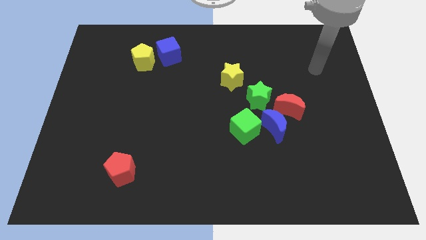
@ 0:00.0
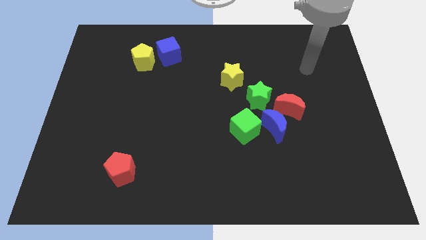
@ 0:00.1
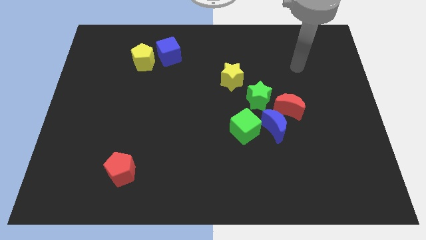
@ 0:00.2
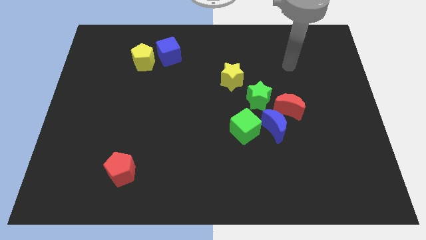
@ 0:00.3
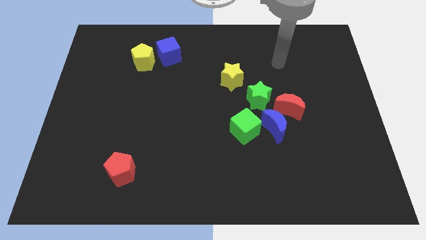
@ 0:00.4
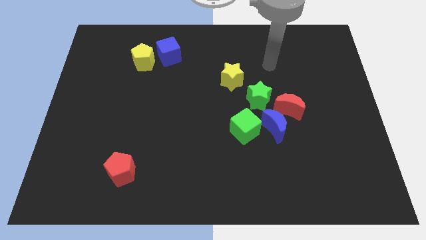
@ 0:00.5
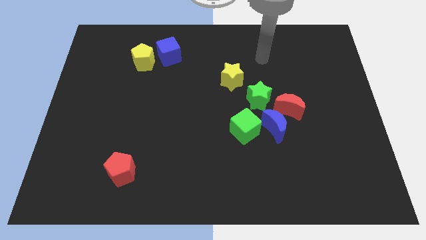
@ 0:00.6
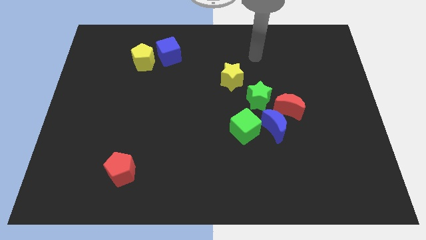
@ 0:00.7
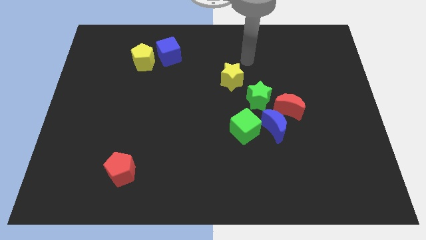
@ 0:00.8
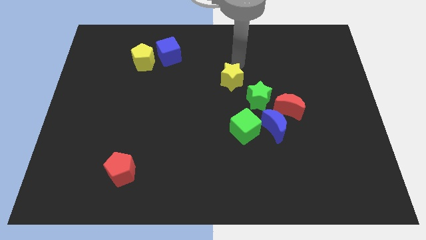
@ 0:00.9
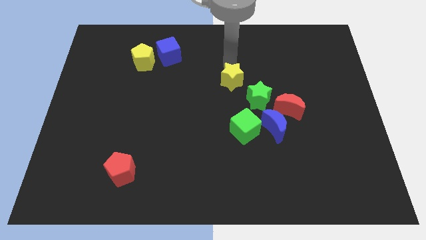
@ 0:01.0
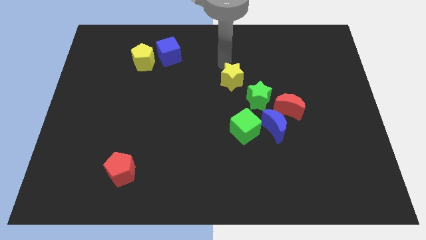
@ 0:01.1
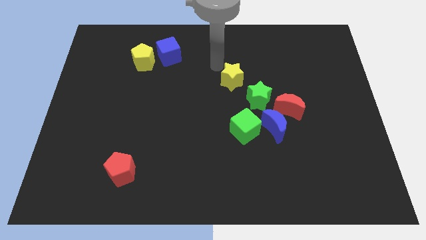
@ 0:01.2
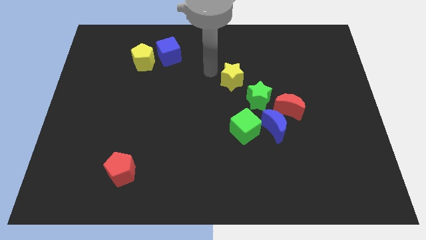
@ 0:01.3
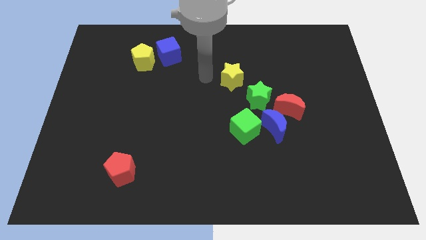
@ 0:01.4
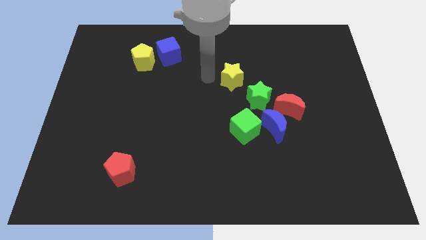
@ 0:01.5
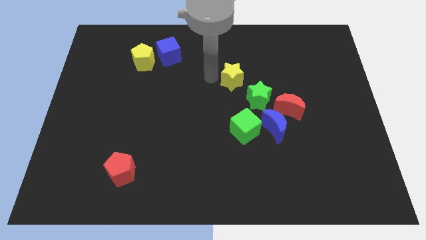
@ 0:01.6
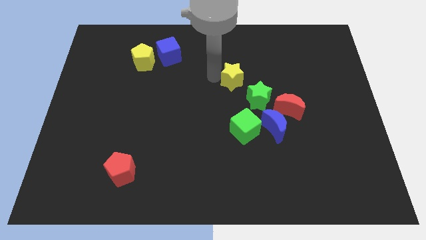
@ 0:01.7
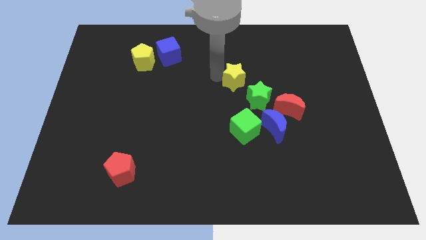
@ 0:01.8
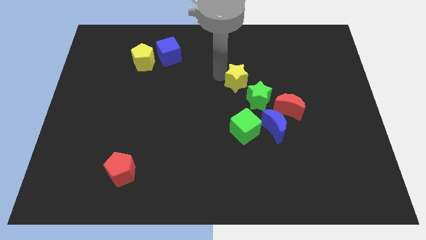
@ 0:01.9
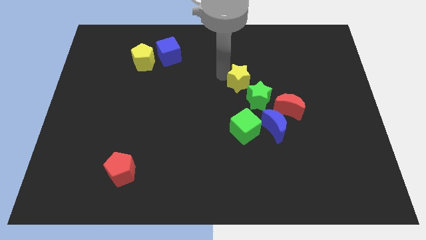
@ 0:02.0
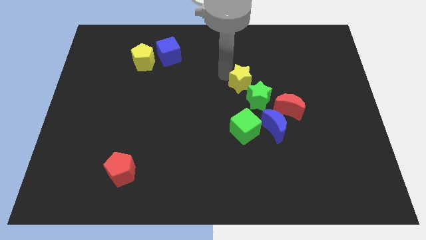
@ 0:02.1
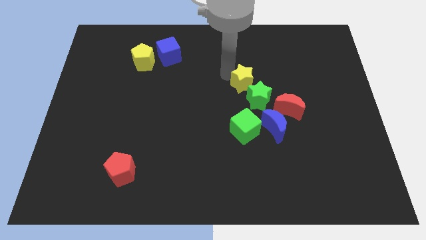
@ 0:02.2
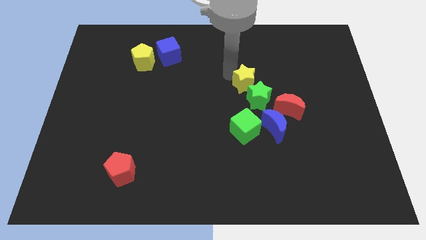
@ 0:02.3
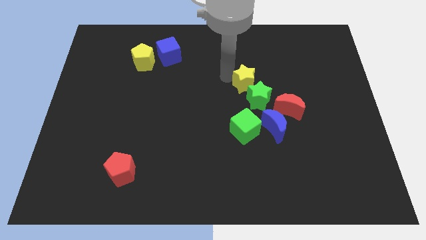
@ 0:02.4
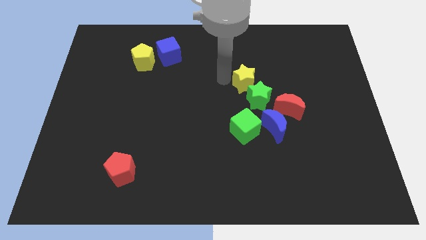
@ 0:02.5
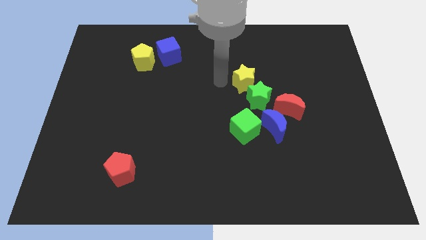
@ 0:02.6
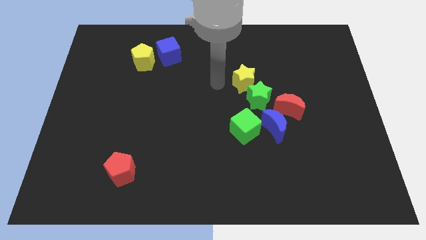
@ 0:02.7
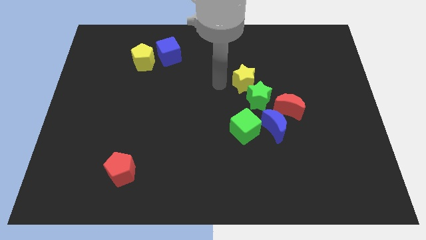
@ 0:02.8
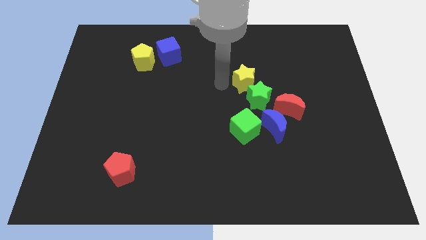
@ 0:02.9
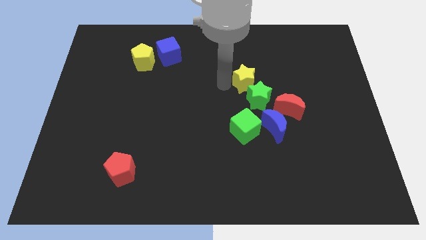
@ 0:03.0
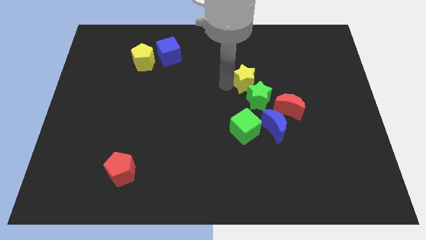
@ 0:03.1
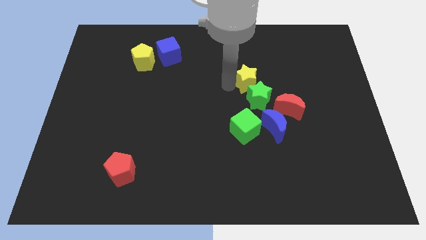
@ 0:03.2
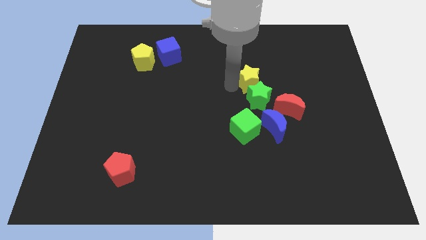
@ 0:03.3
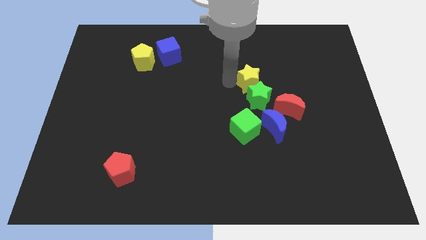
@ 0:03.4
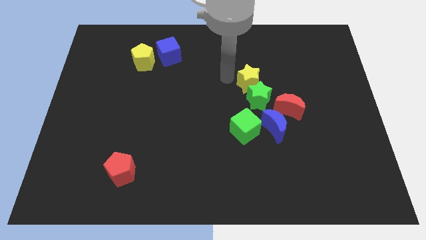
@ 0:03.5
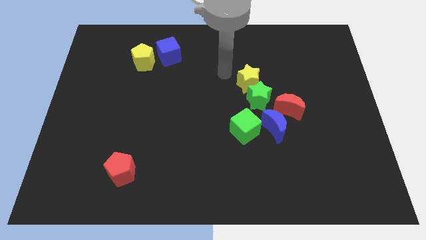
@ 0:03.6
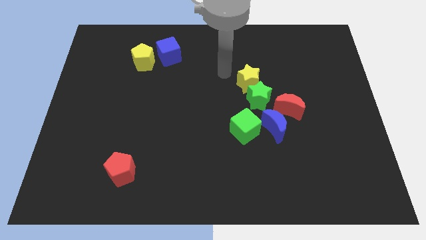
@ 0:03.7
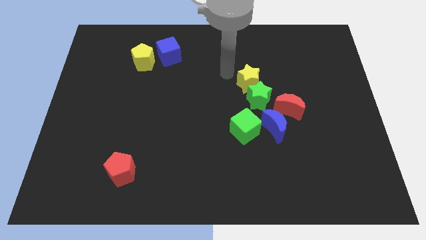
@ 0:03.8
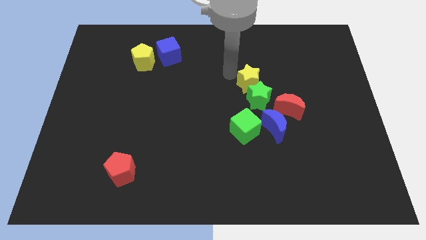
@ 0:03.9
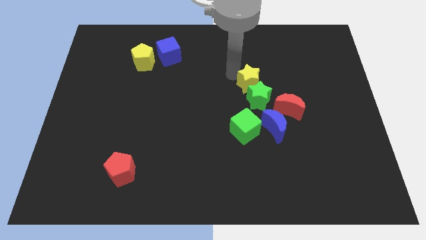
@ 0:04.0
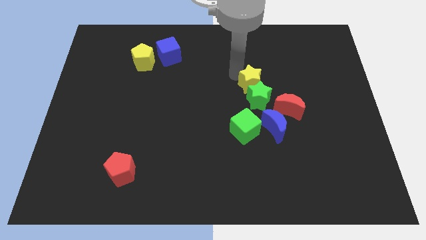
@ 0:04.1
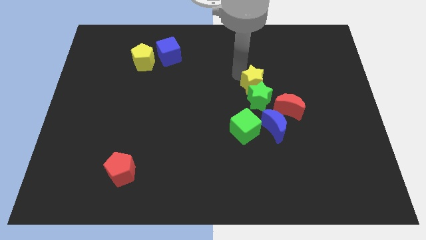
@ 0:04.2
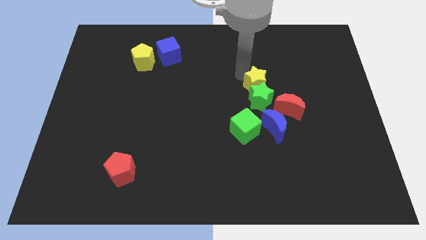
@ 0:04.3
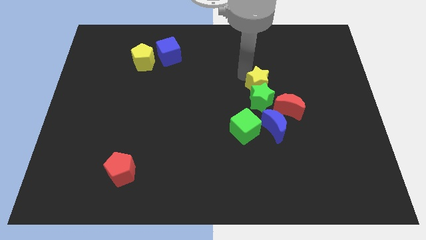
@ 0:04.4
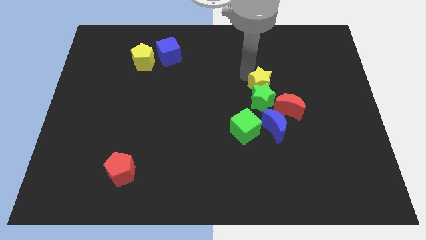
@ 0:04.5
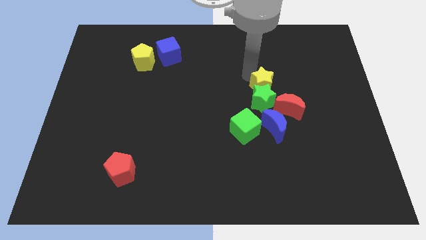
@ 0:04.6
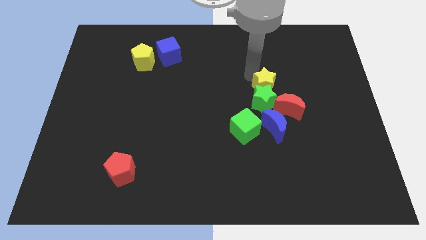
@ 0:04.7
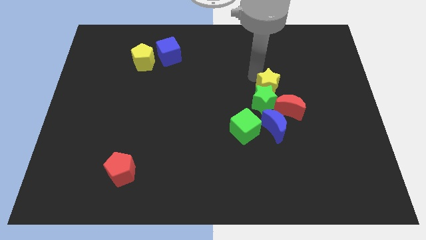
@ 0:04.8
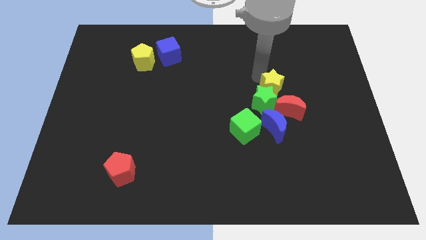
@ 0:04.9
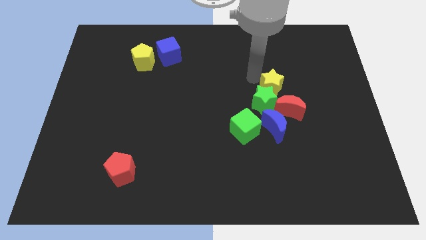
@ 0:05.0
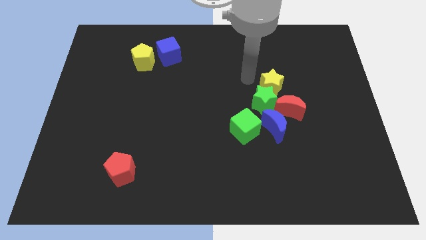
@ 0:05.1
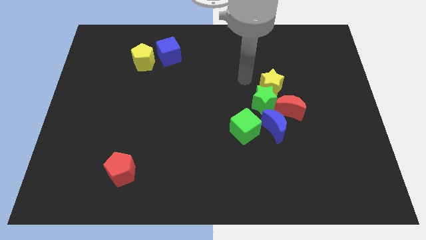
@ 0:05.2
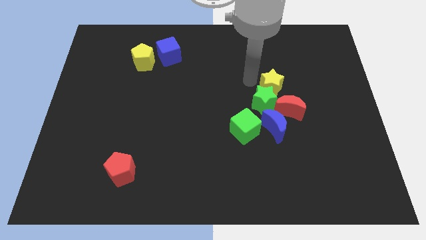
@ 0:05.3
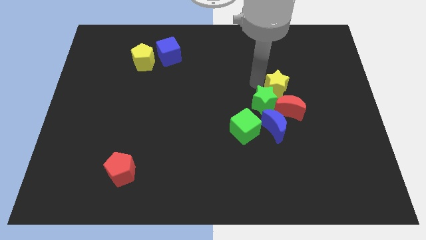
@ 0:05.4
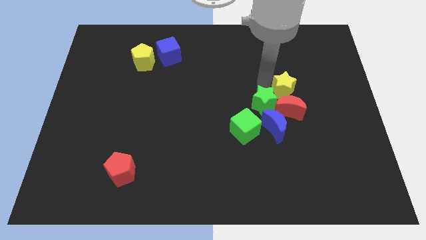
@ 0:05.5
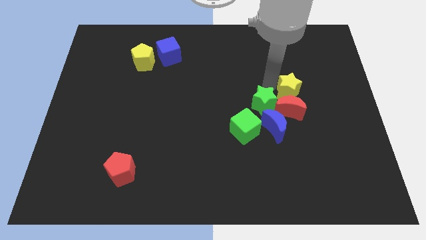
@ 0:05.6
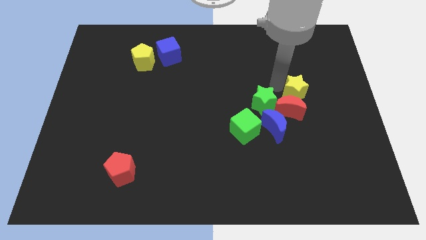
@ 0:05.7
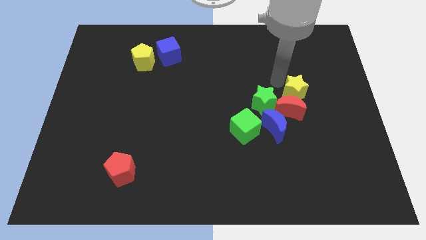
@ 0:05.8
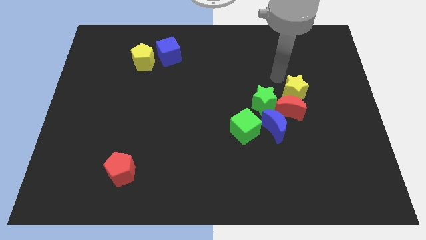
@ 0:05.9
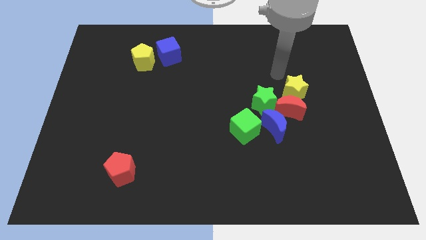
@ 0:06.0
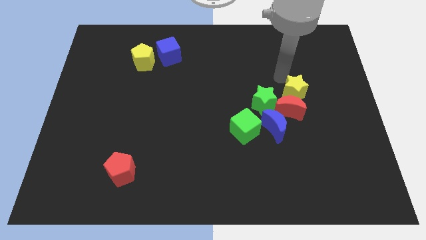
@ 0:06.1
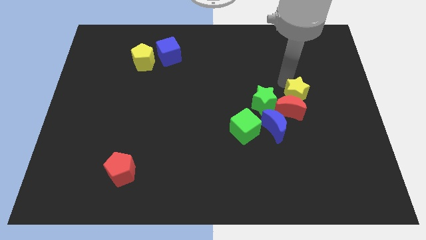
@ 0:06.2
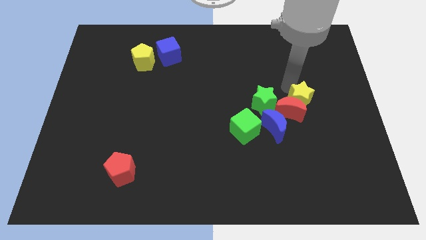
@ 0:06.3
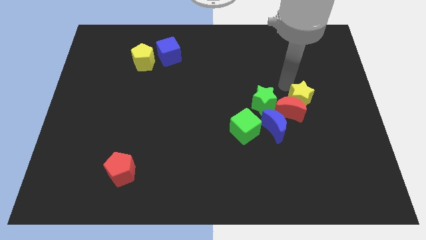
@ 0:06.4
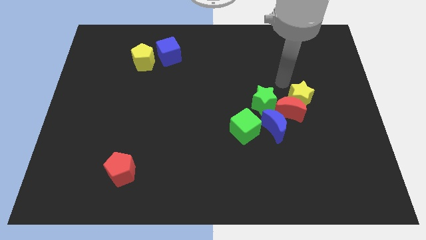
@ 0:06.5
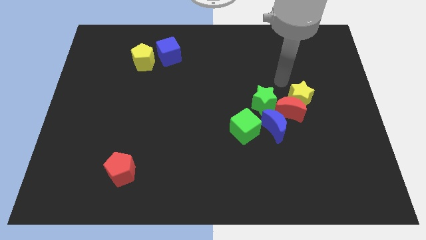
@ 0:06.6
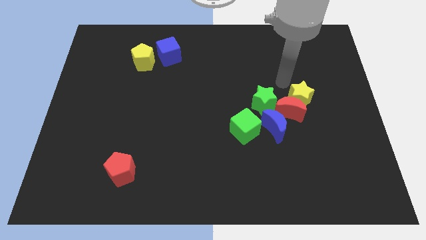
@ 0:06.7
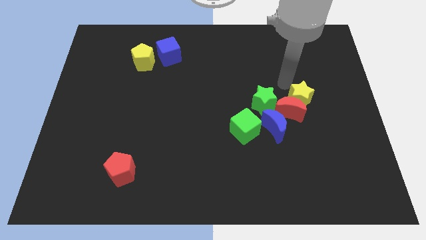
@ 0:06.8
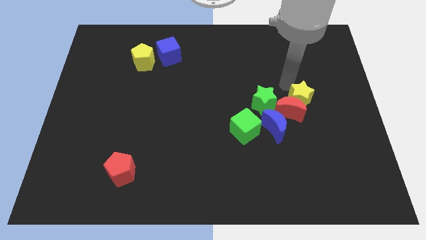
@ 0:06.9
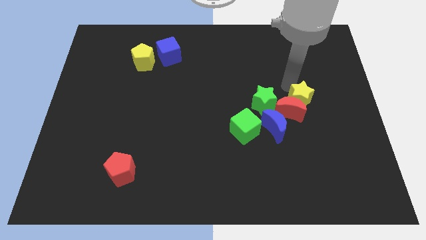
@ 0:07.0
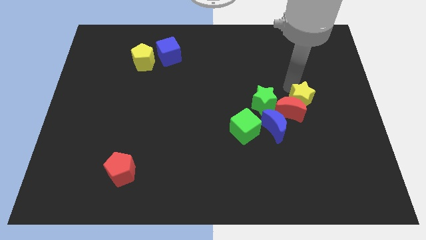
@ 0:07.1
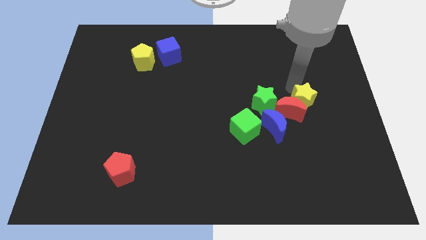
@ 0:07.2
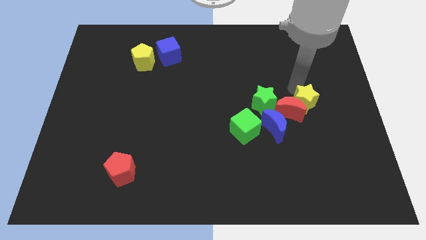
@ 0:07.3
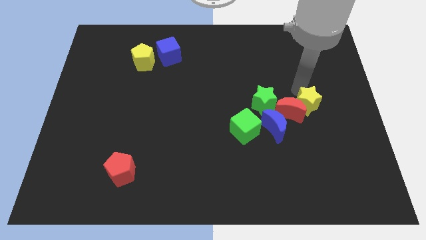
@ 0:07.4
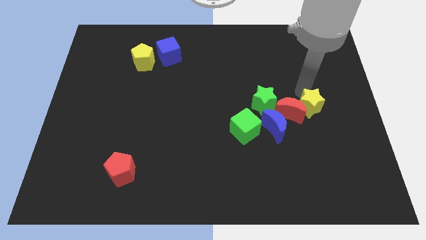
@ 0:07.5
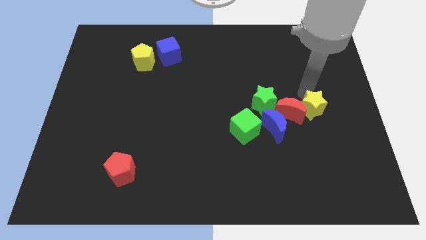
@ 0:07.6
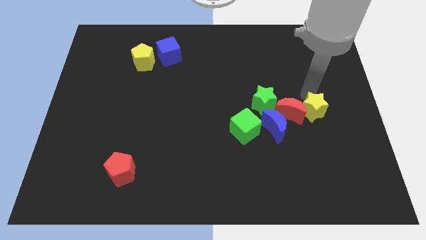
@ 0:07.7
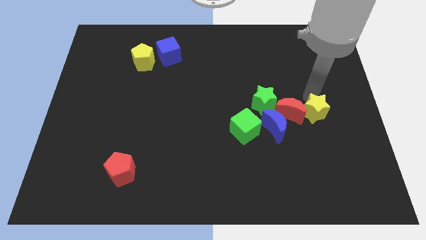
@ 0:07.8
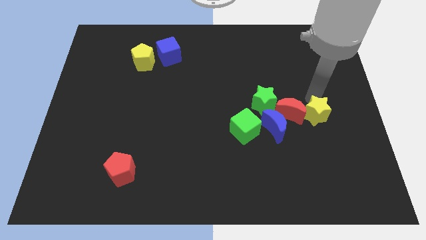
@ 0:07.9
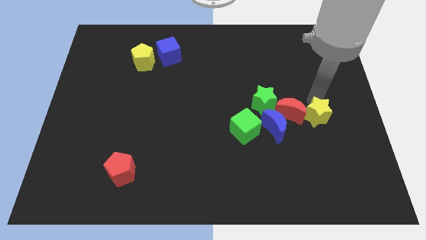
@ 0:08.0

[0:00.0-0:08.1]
move the yellow star diagonally down and right
